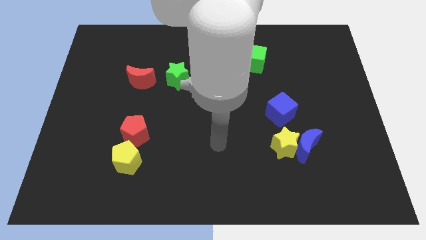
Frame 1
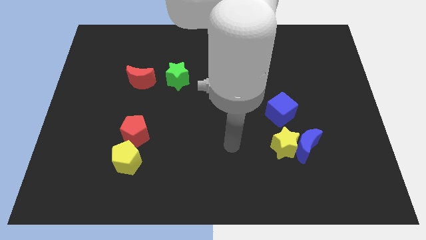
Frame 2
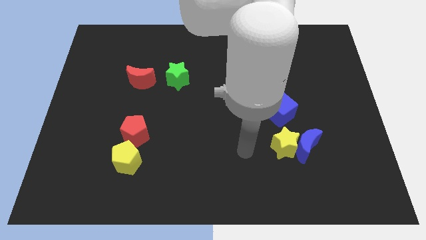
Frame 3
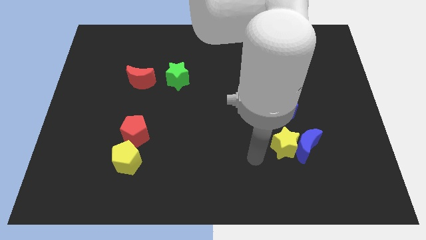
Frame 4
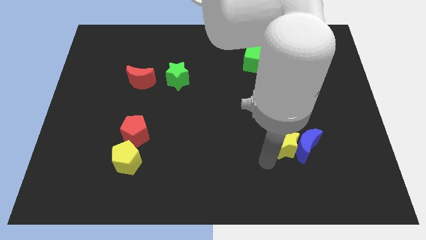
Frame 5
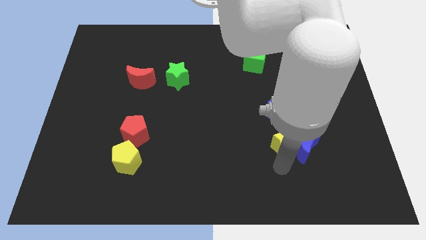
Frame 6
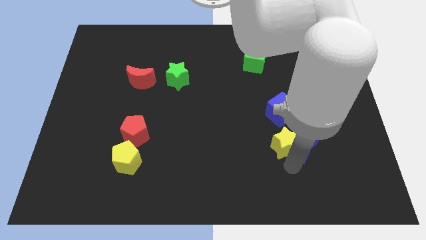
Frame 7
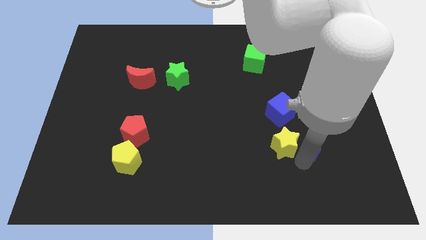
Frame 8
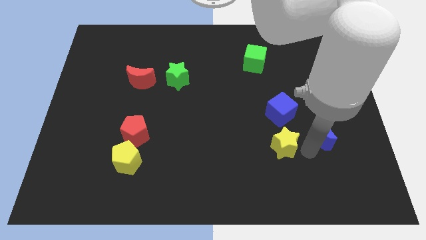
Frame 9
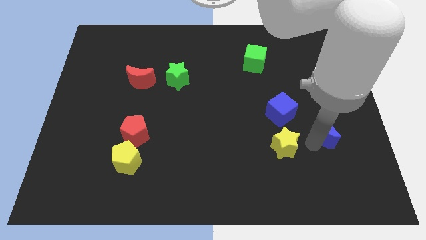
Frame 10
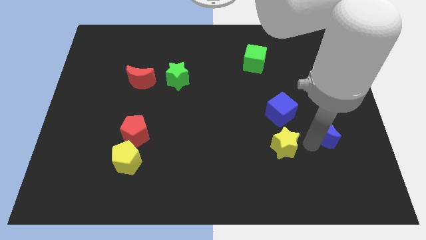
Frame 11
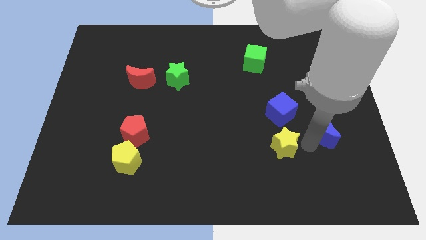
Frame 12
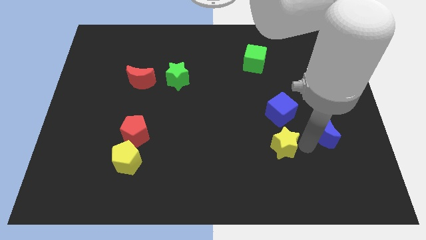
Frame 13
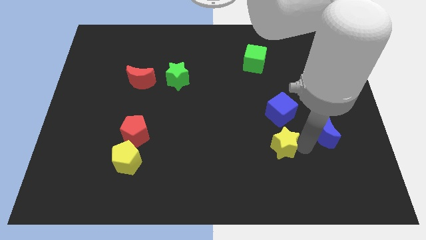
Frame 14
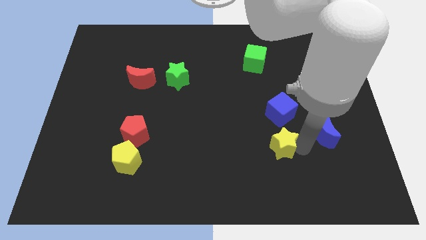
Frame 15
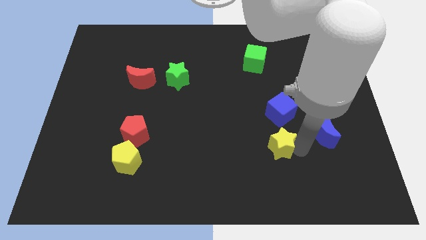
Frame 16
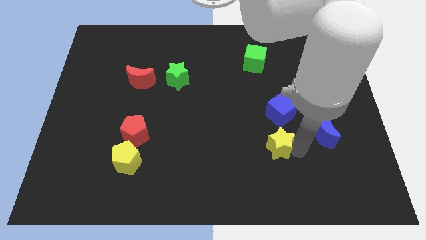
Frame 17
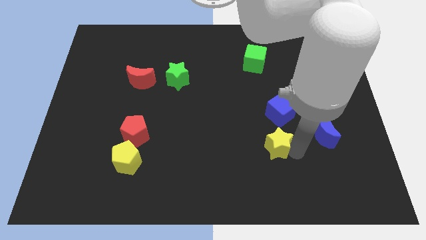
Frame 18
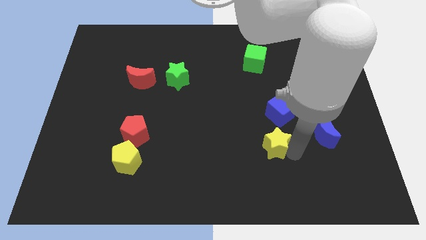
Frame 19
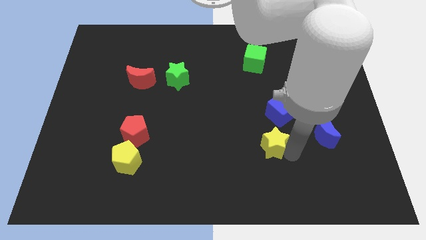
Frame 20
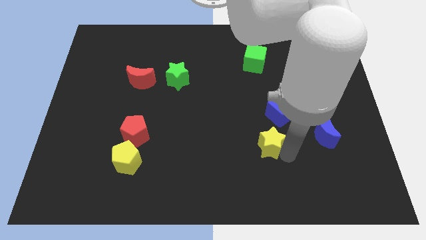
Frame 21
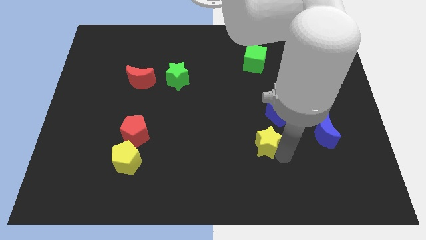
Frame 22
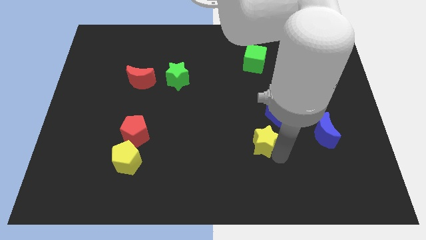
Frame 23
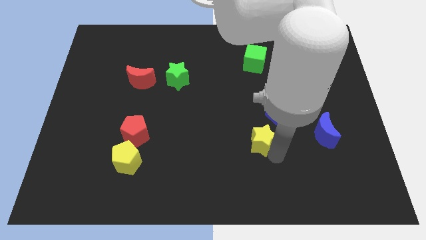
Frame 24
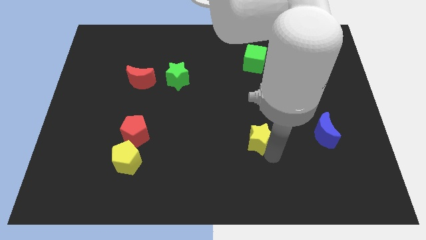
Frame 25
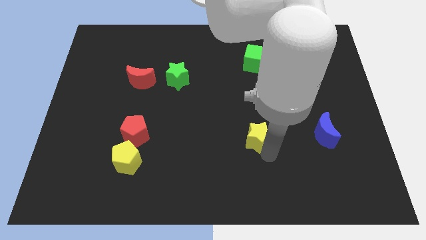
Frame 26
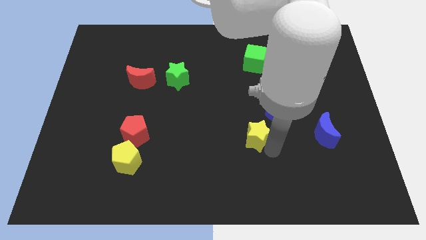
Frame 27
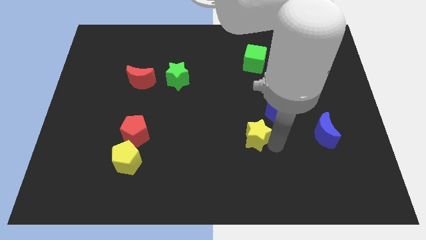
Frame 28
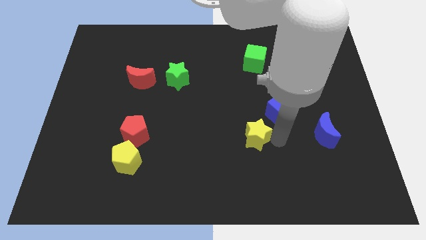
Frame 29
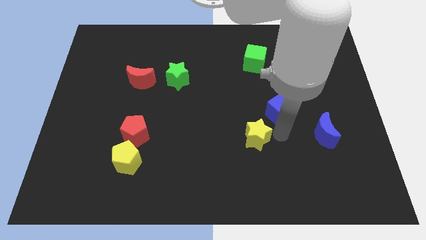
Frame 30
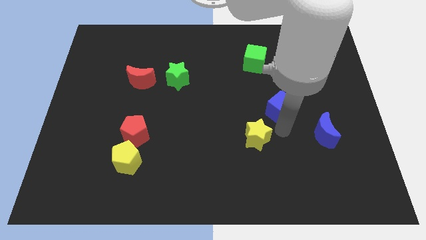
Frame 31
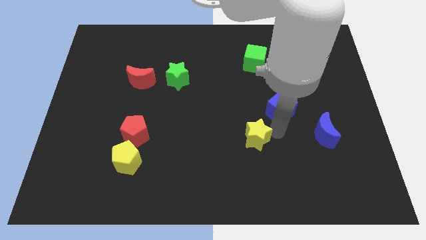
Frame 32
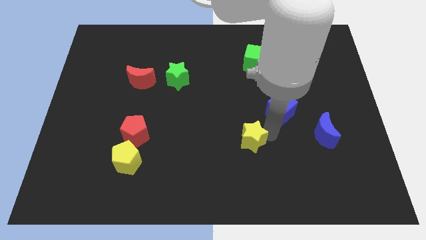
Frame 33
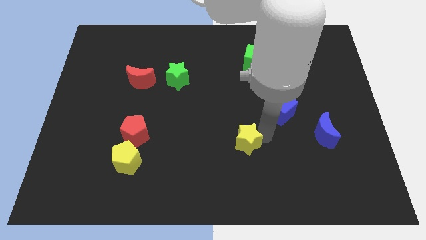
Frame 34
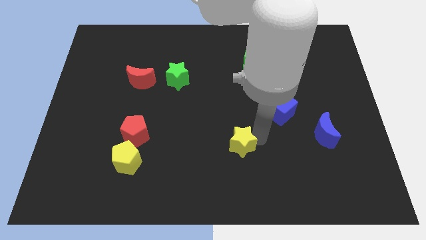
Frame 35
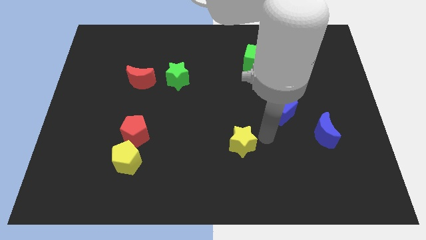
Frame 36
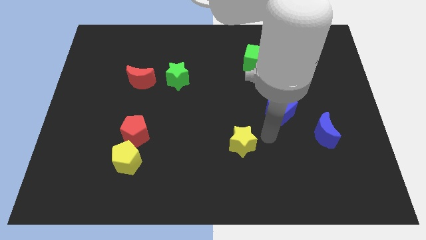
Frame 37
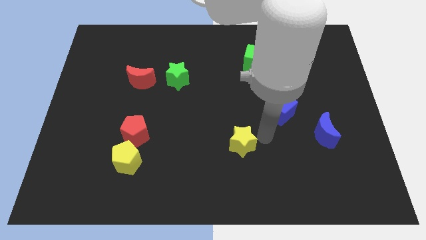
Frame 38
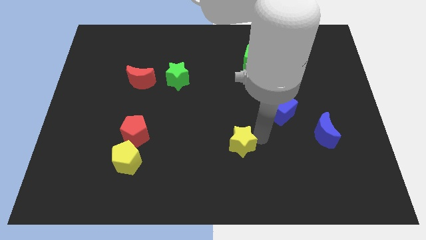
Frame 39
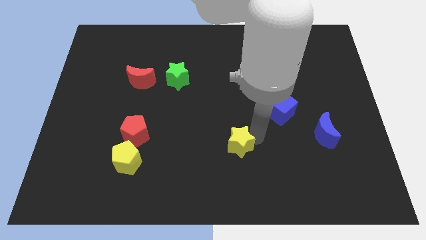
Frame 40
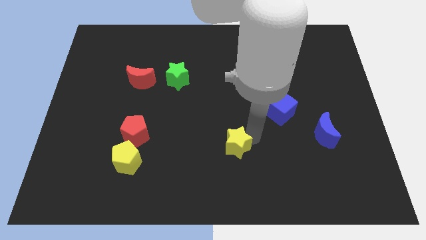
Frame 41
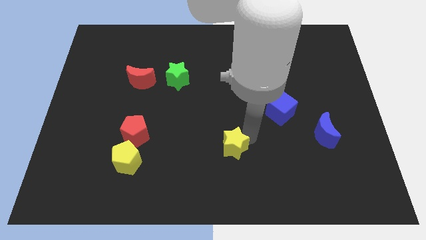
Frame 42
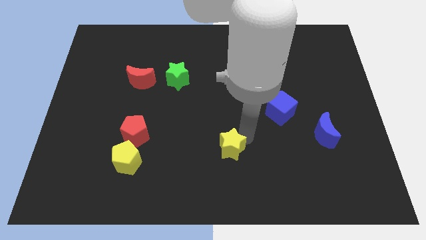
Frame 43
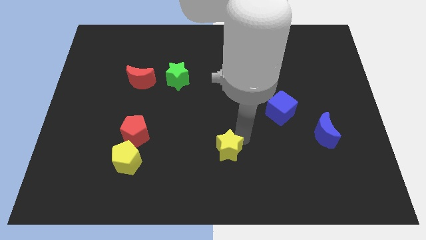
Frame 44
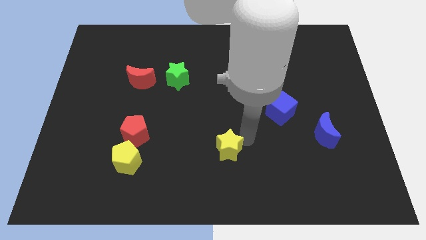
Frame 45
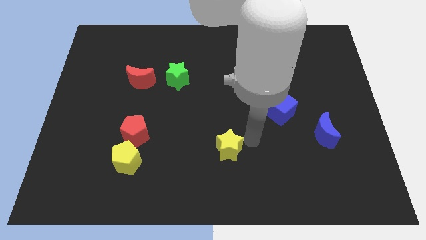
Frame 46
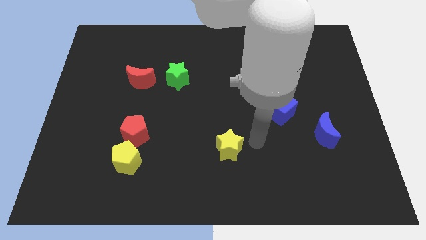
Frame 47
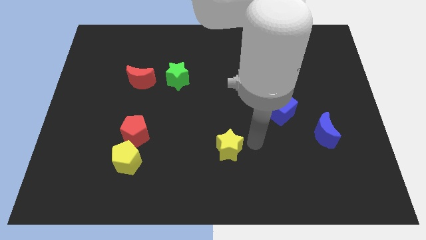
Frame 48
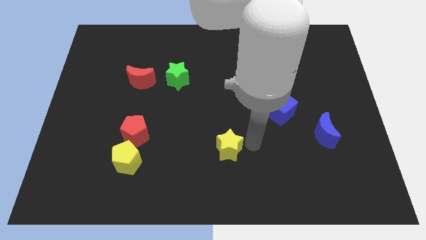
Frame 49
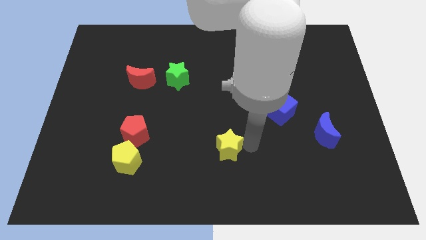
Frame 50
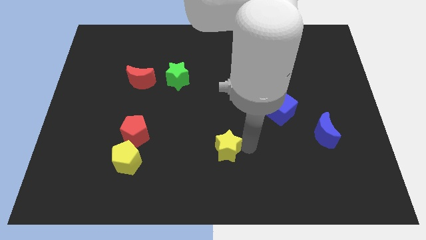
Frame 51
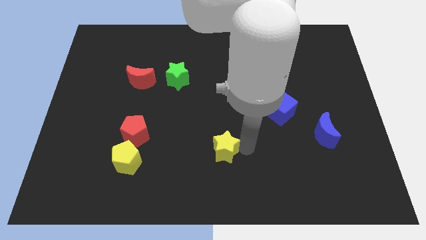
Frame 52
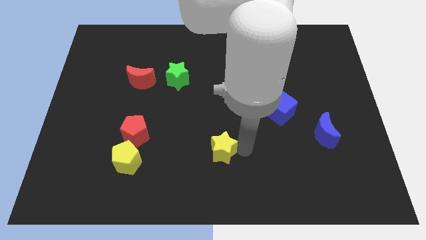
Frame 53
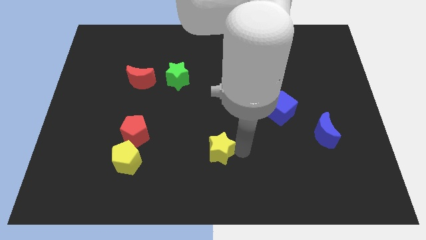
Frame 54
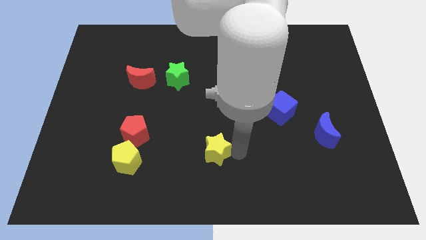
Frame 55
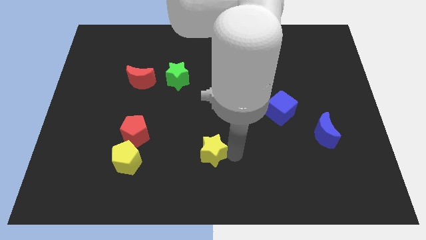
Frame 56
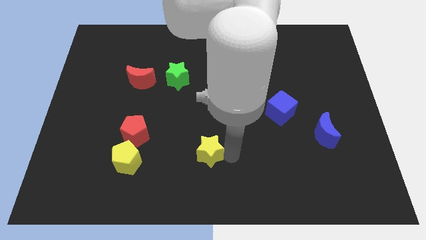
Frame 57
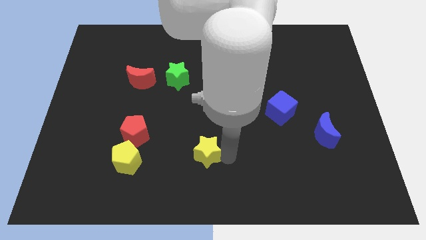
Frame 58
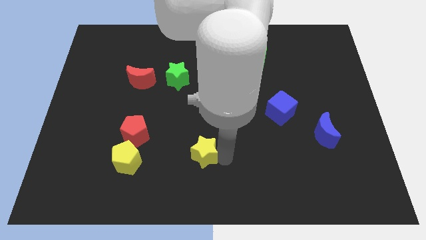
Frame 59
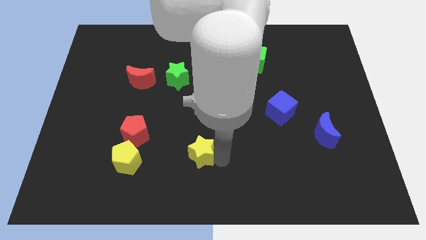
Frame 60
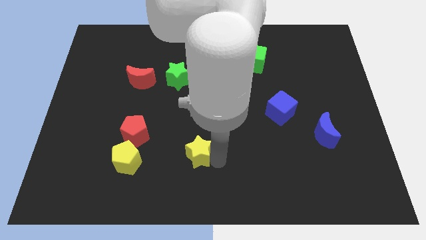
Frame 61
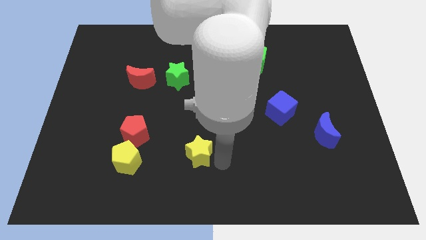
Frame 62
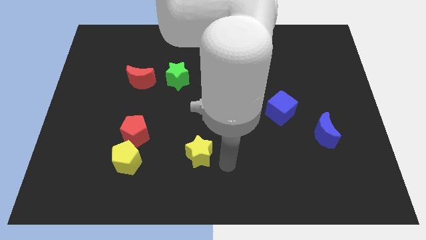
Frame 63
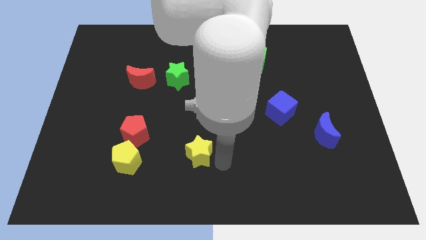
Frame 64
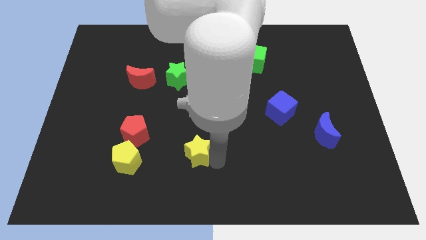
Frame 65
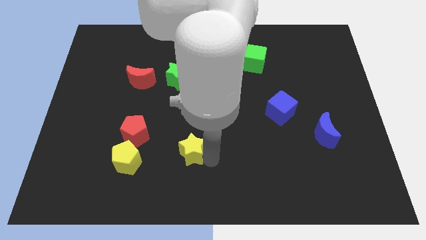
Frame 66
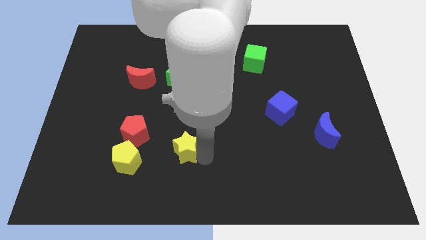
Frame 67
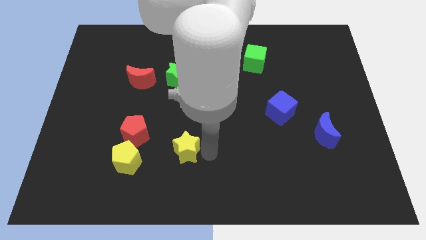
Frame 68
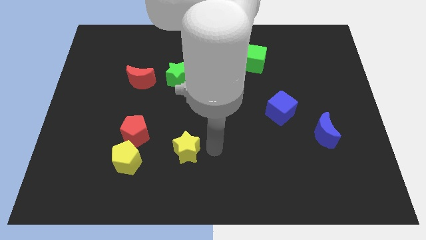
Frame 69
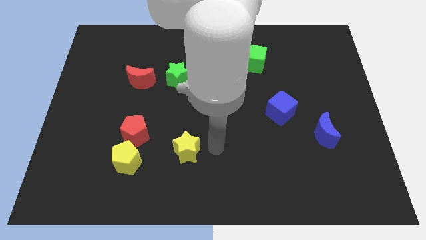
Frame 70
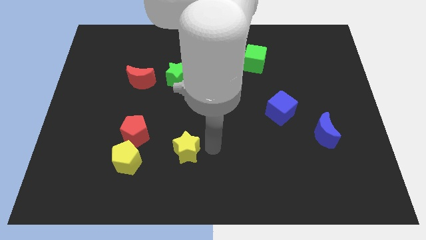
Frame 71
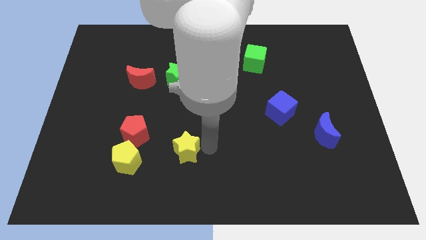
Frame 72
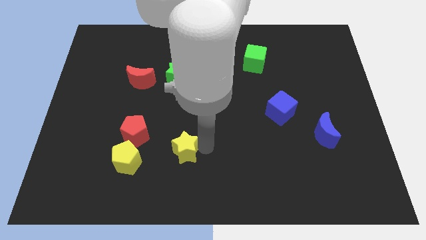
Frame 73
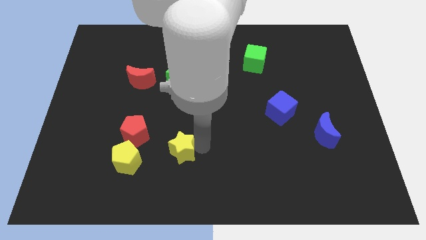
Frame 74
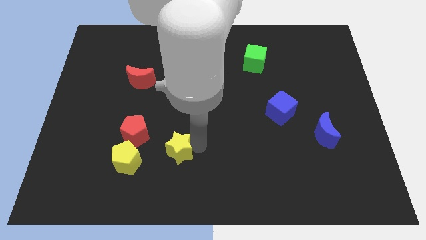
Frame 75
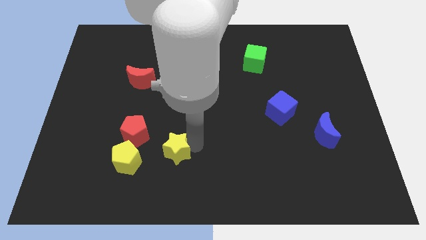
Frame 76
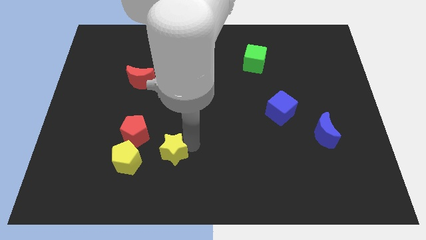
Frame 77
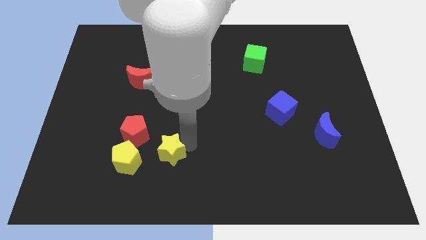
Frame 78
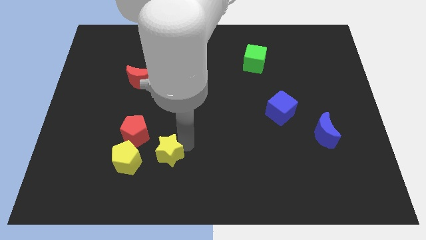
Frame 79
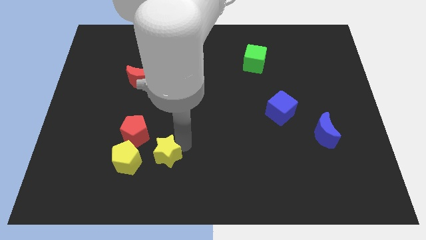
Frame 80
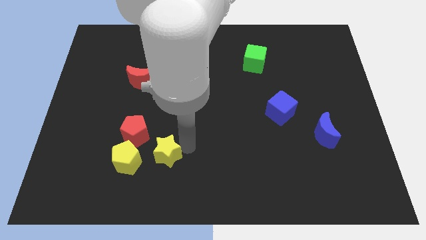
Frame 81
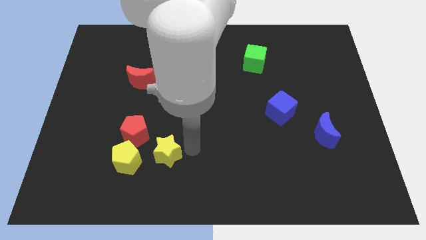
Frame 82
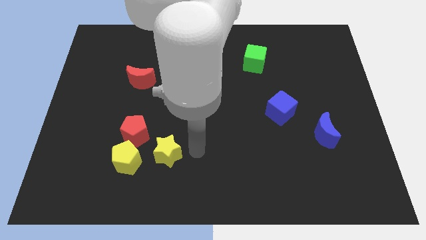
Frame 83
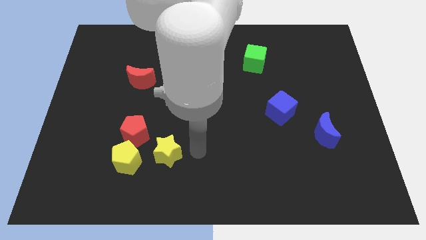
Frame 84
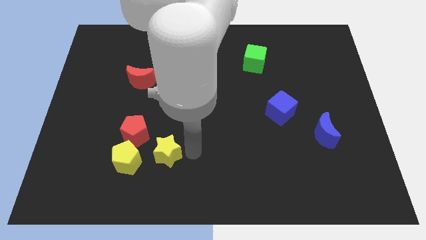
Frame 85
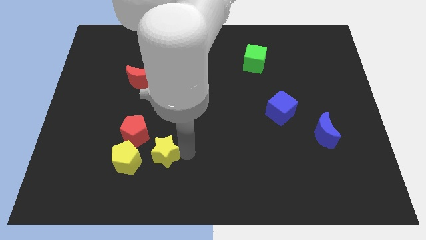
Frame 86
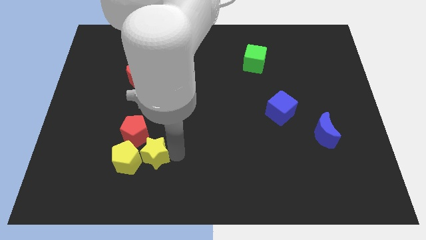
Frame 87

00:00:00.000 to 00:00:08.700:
slide the yellow star close to the yellow pentagon
